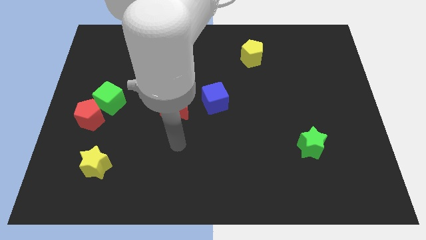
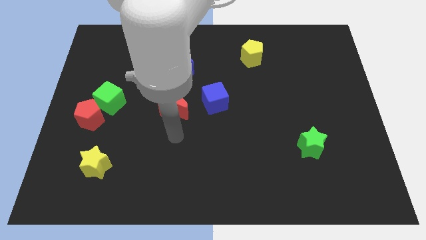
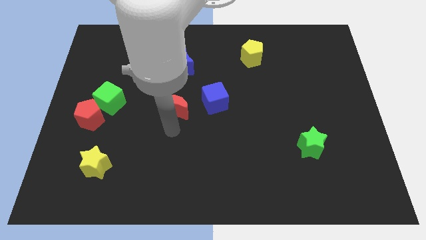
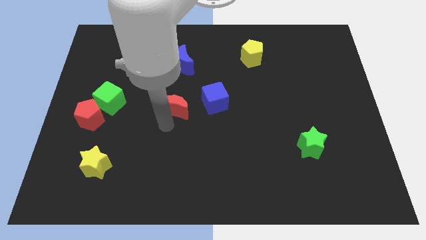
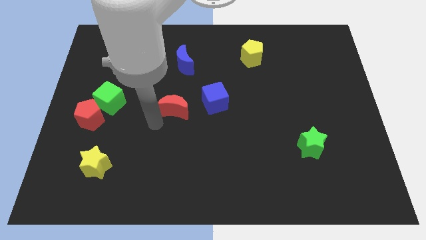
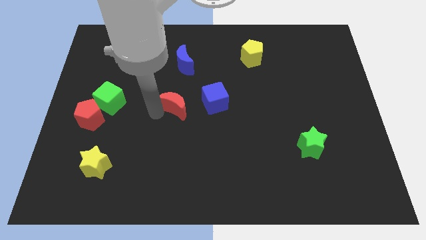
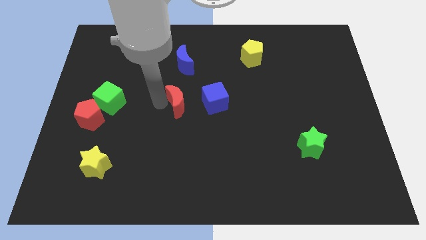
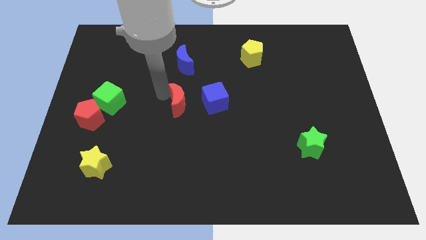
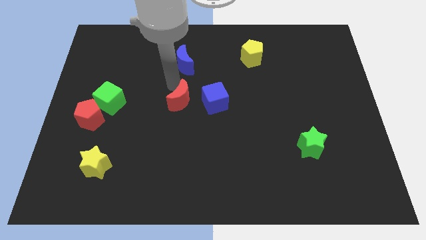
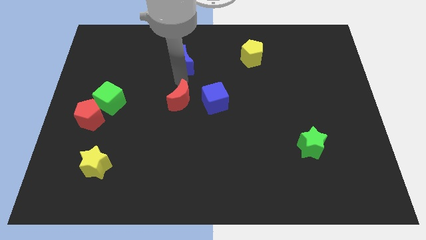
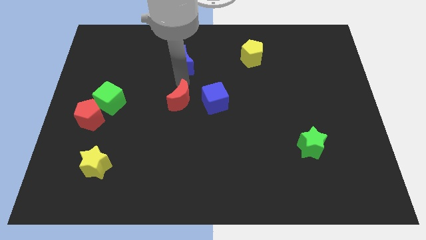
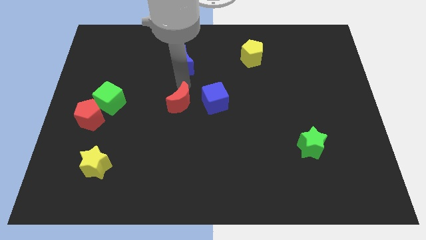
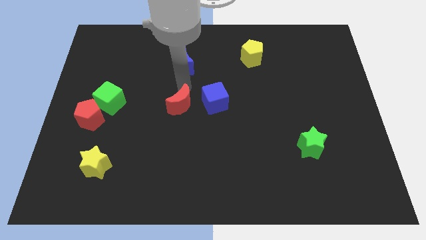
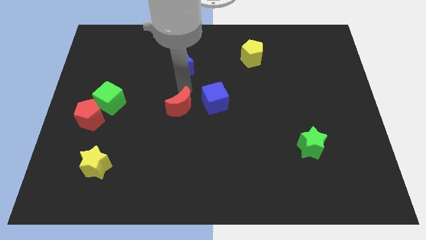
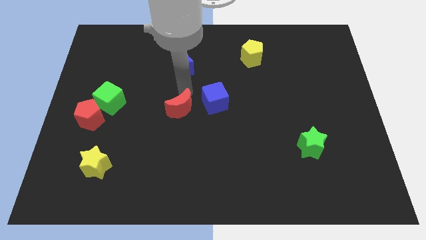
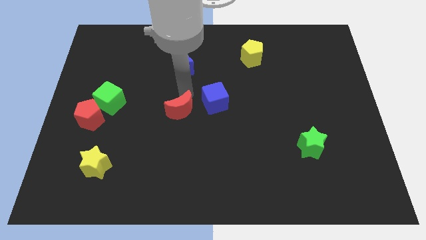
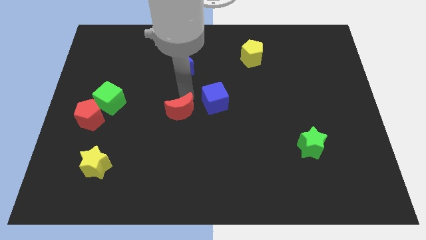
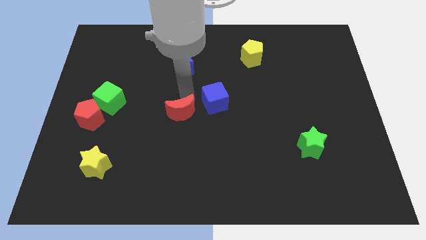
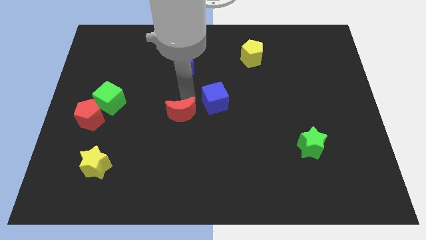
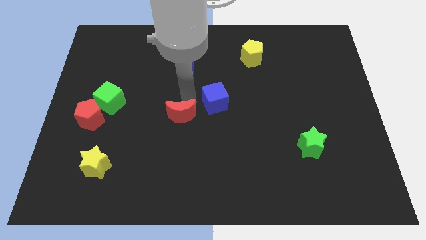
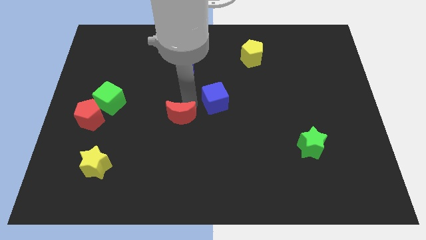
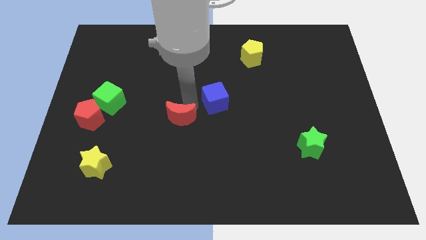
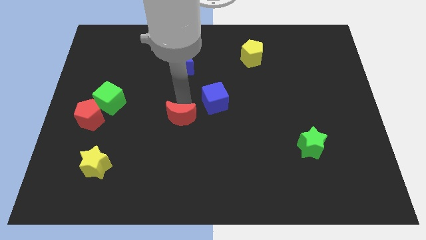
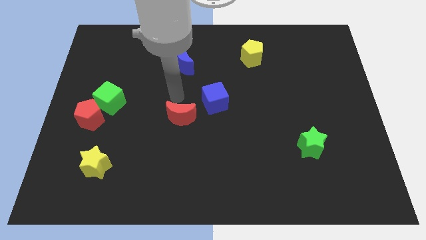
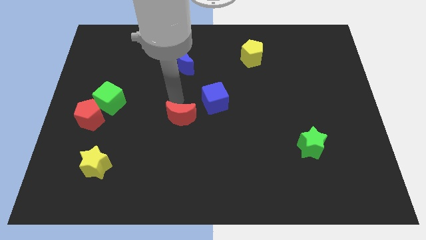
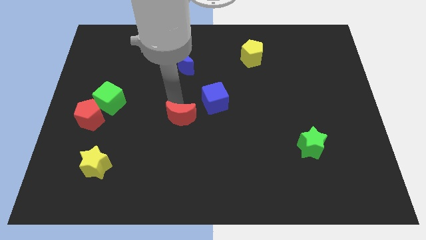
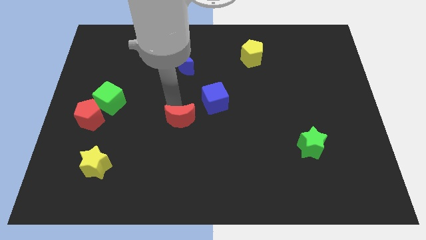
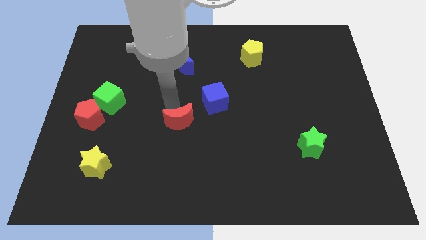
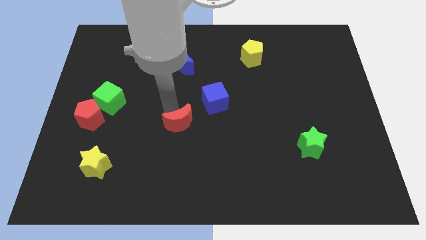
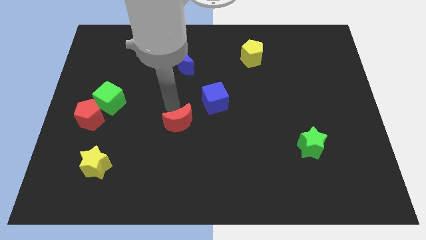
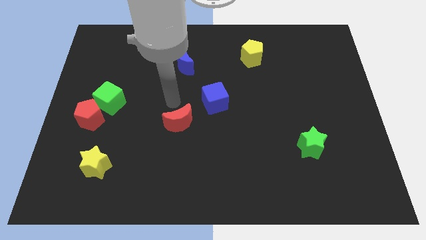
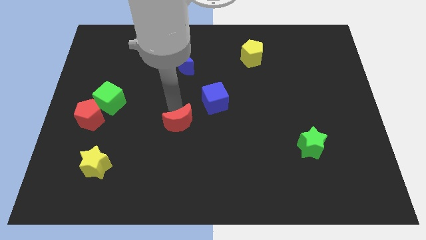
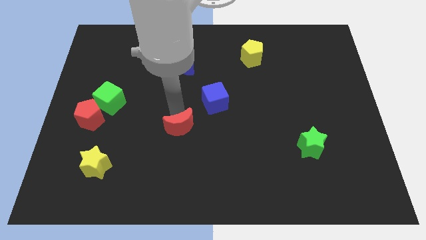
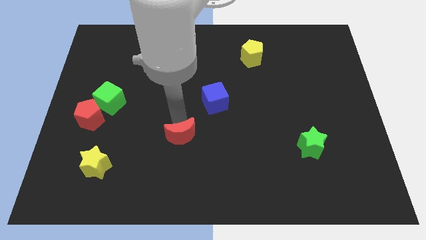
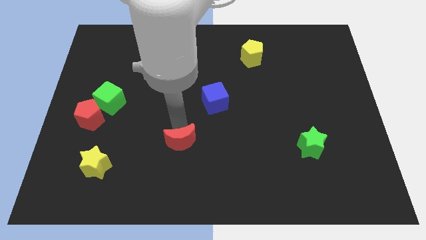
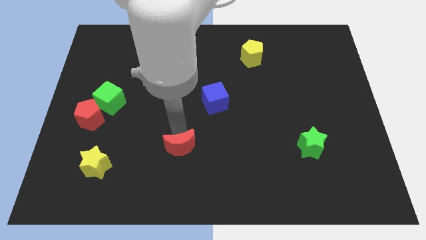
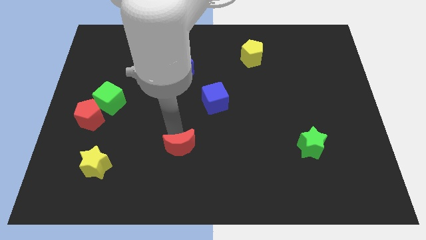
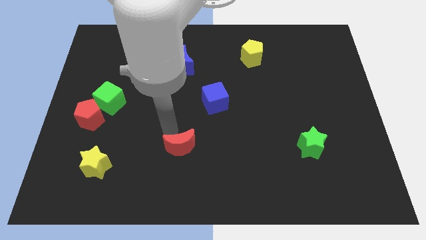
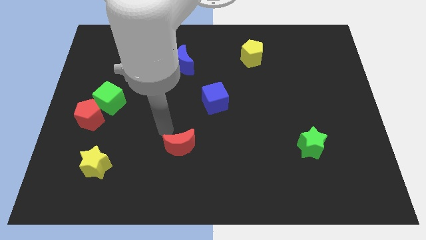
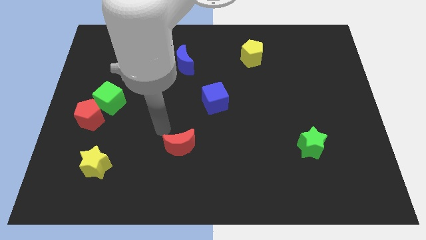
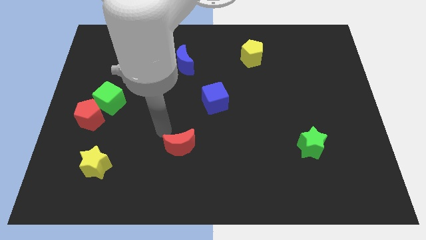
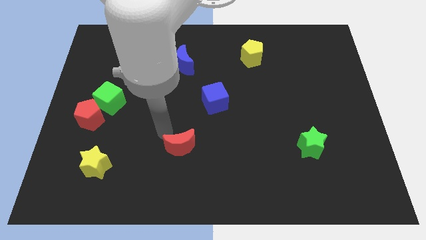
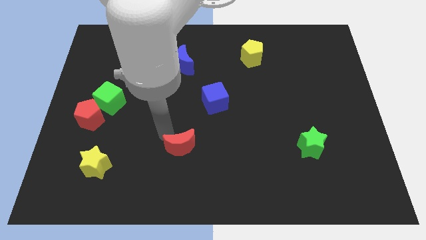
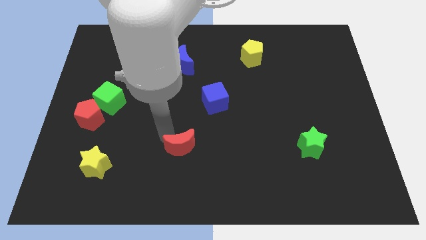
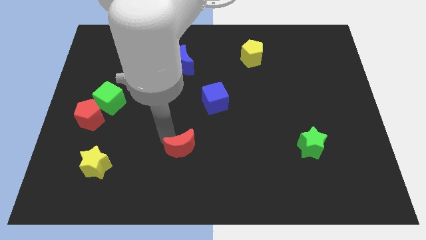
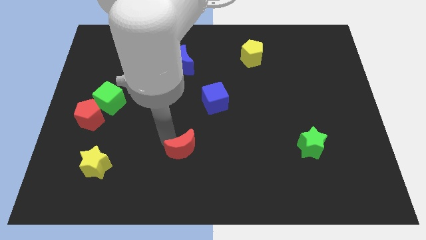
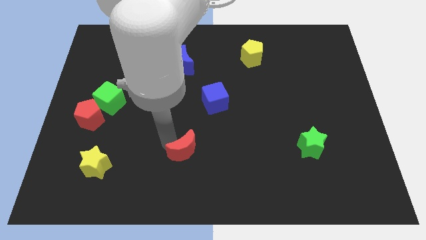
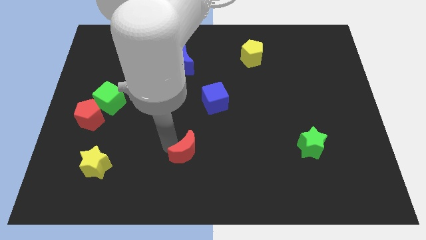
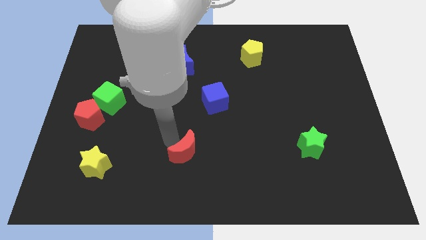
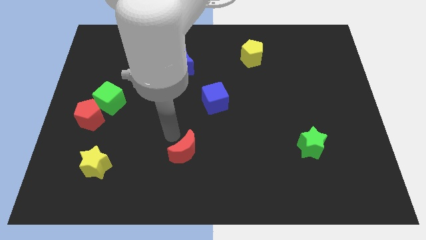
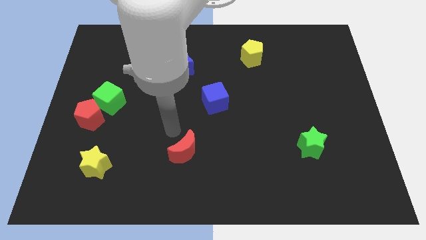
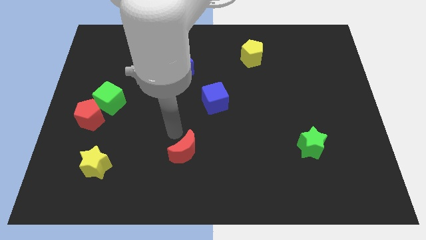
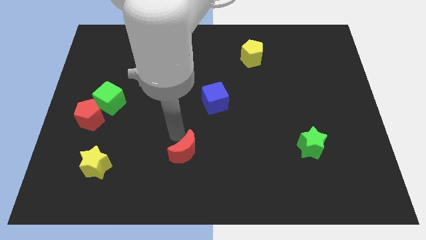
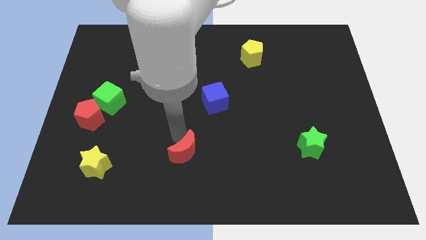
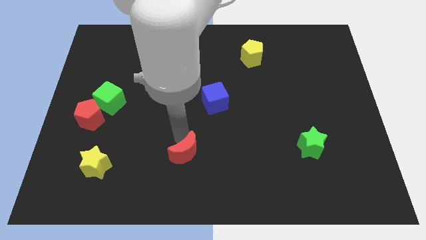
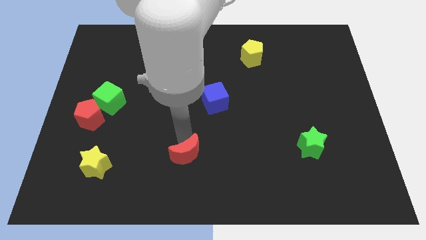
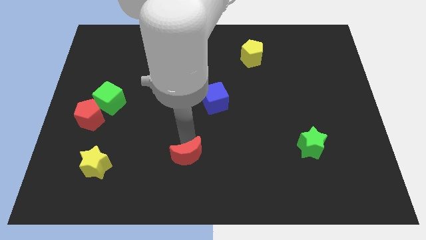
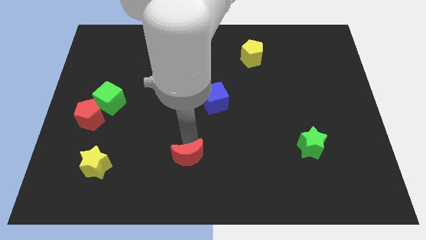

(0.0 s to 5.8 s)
move the red moon to the bottom

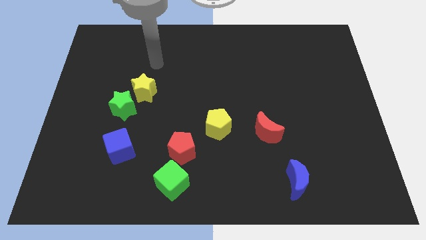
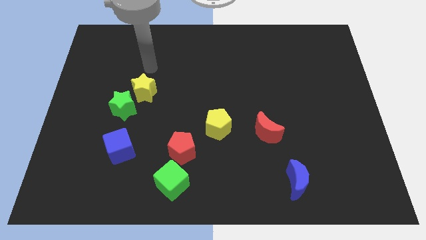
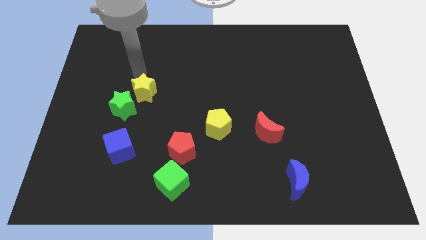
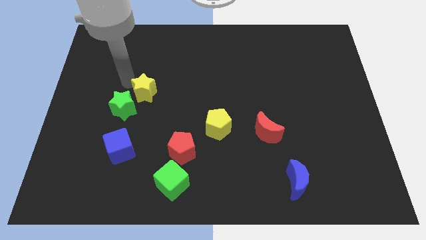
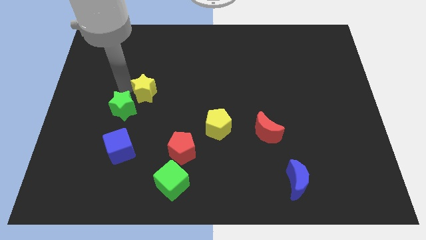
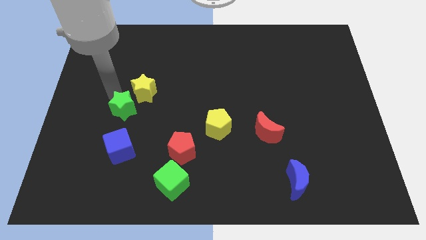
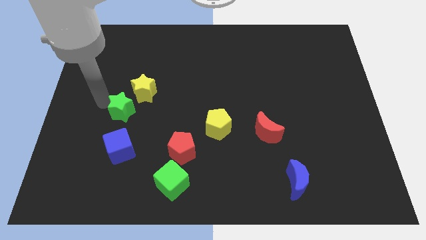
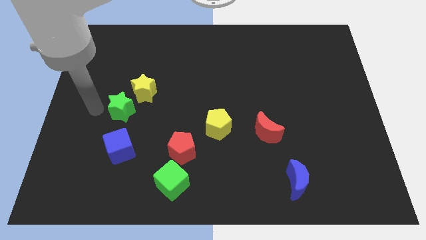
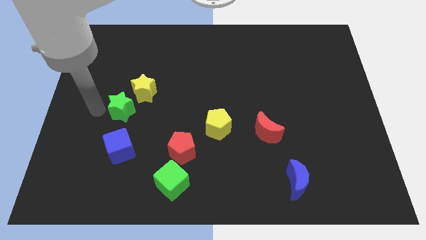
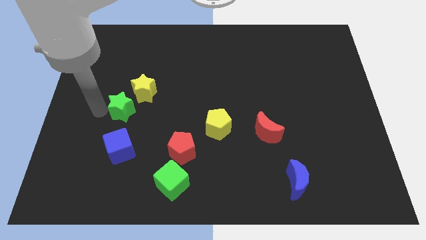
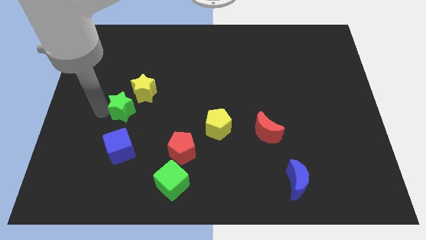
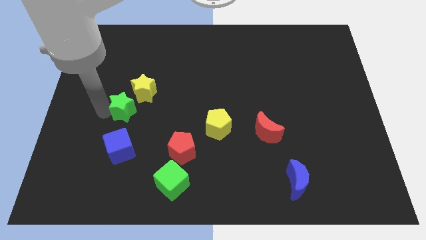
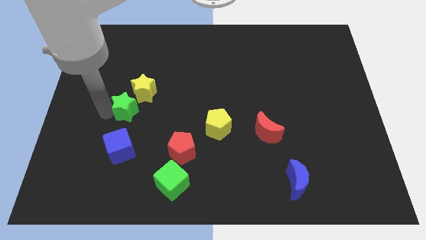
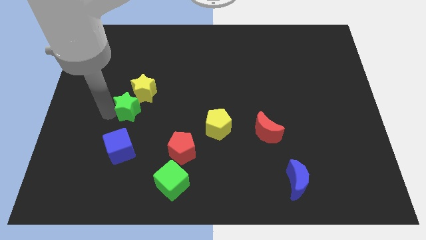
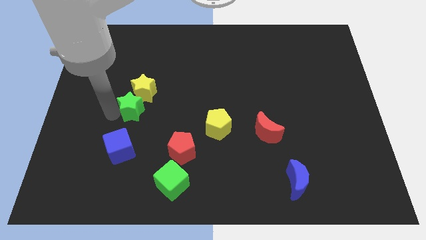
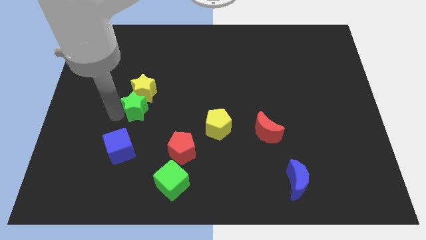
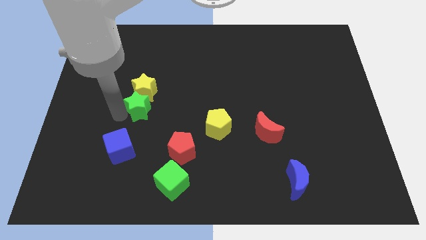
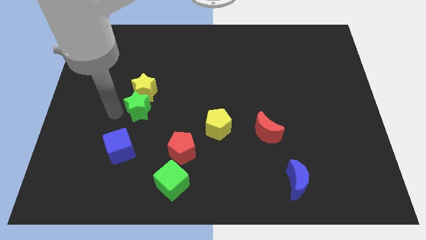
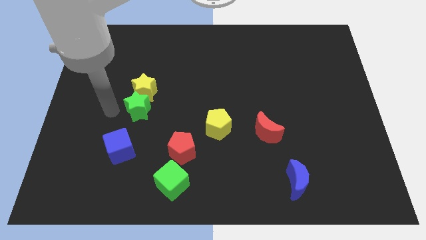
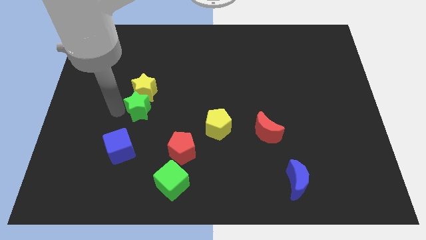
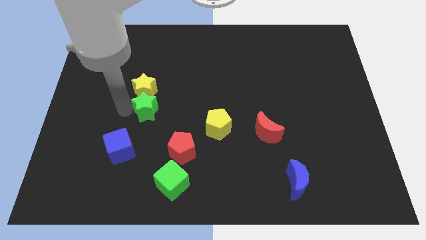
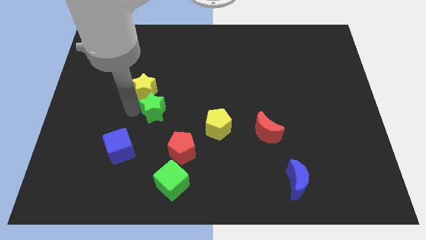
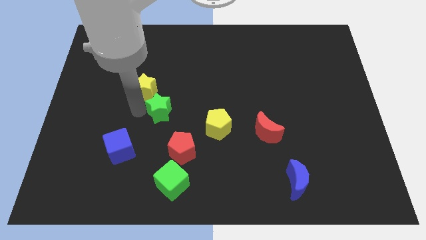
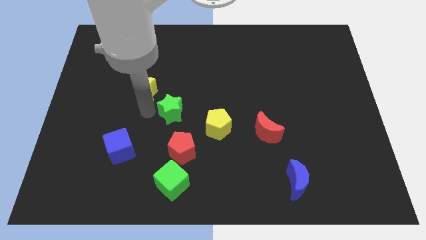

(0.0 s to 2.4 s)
push the green star to the center of the board
